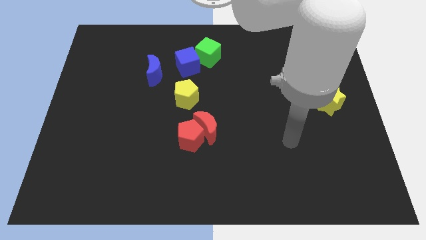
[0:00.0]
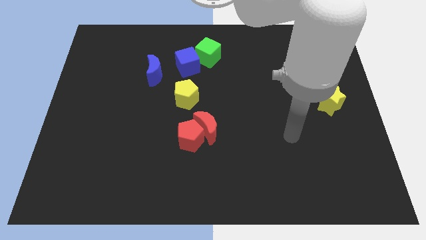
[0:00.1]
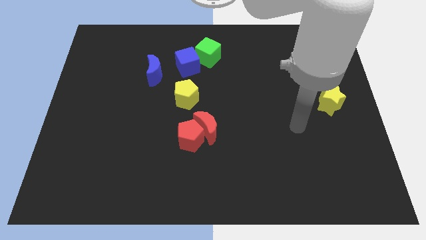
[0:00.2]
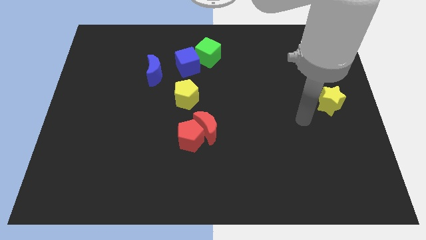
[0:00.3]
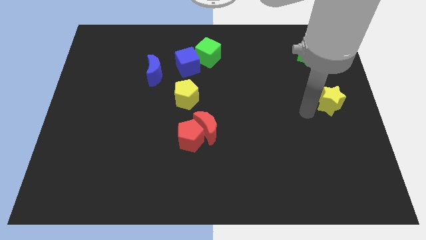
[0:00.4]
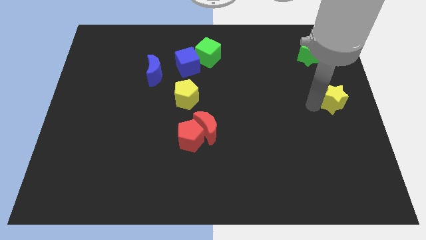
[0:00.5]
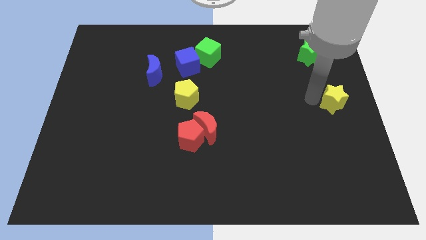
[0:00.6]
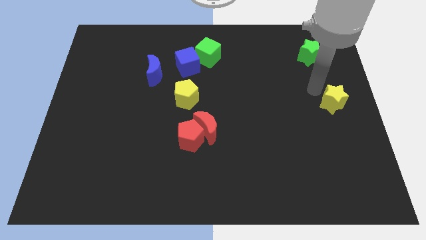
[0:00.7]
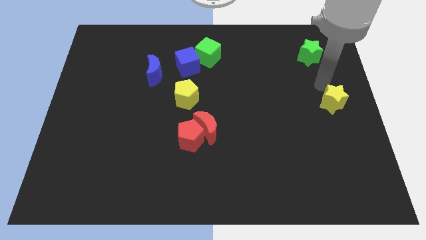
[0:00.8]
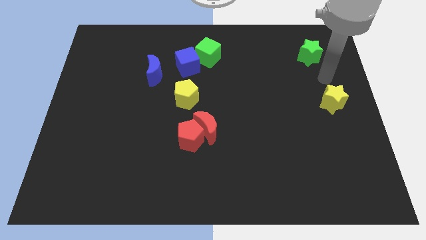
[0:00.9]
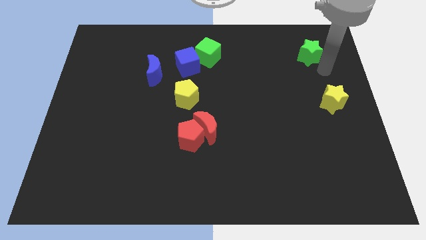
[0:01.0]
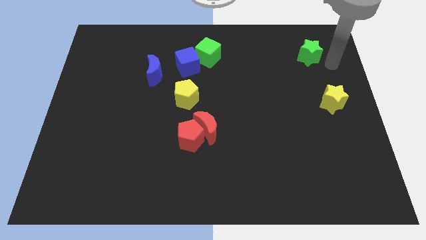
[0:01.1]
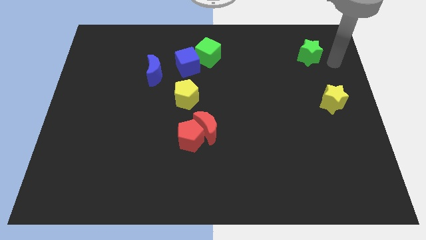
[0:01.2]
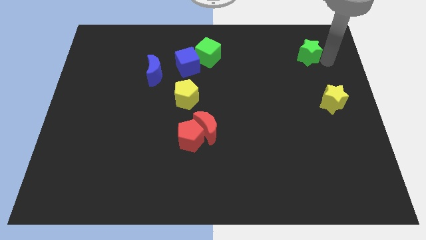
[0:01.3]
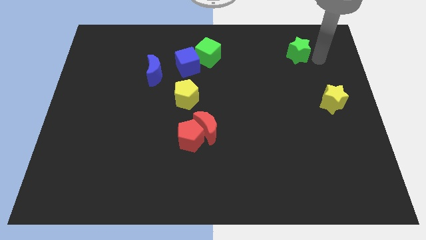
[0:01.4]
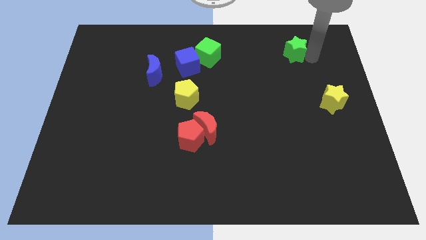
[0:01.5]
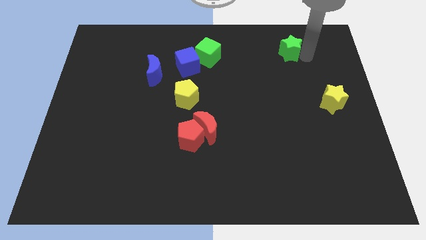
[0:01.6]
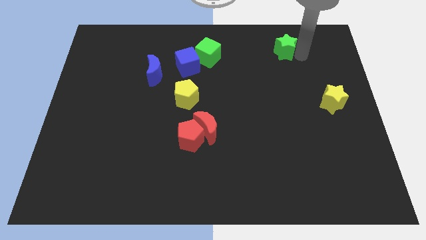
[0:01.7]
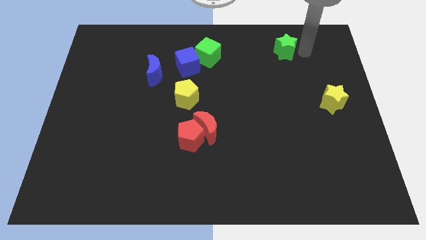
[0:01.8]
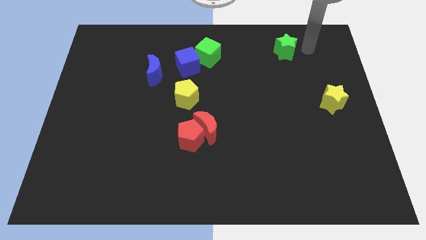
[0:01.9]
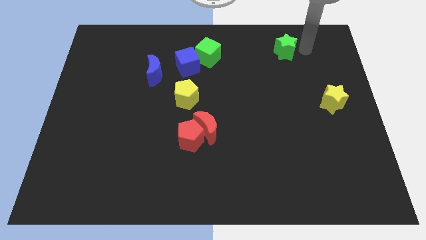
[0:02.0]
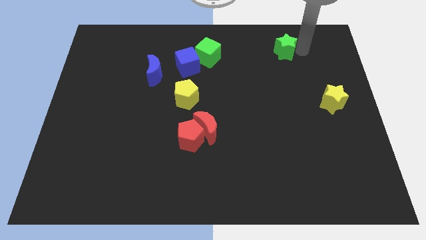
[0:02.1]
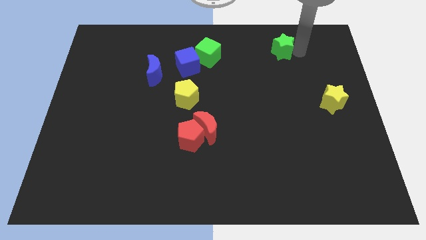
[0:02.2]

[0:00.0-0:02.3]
move the green star to the left a little bit

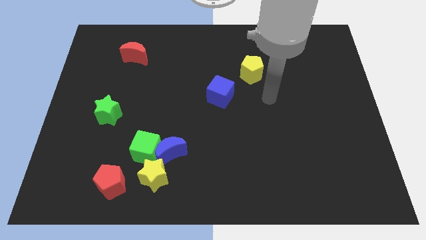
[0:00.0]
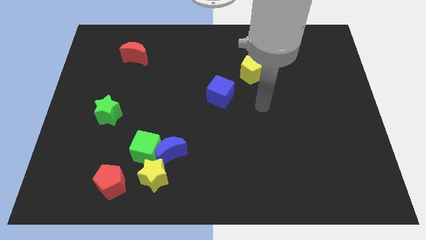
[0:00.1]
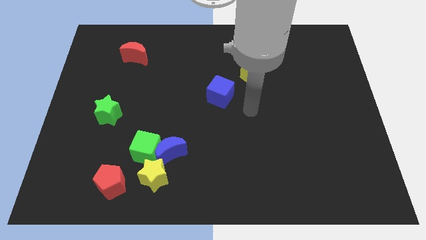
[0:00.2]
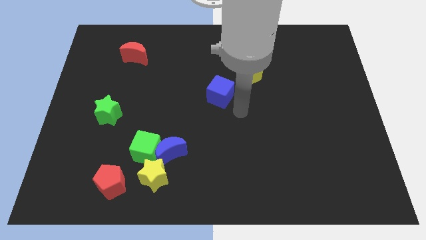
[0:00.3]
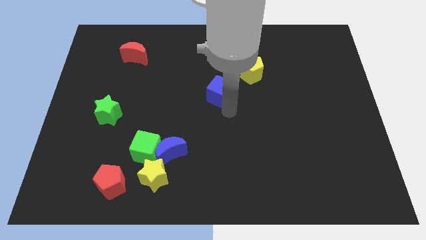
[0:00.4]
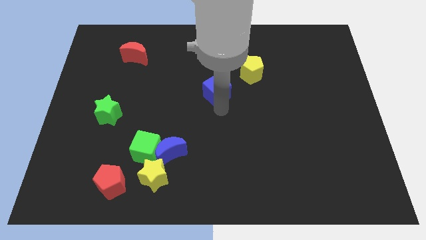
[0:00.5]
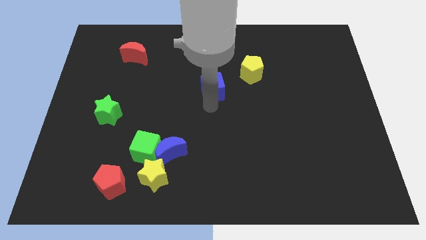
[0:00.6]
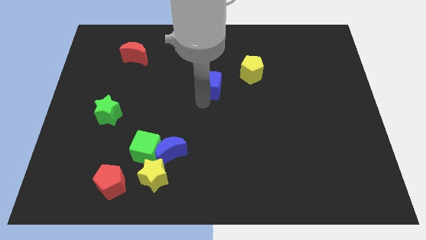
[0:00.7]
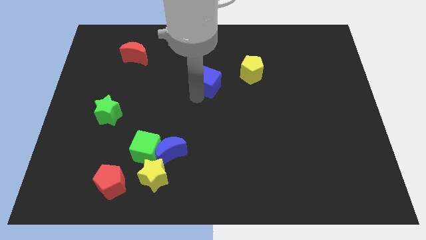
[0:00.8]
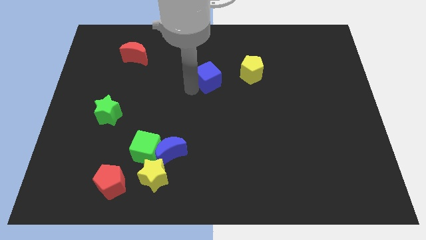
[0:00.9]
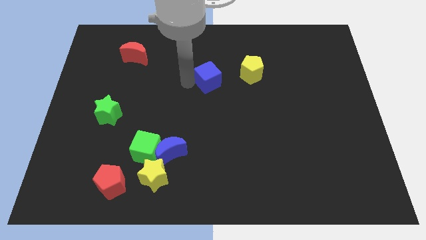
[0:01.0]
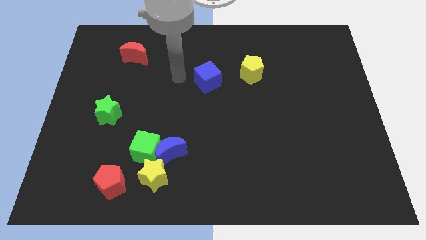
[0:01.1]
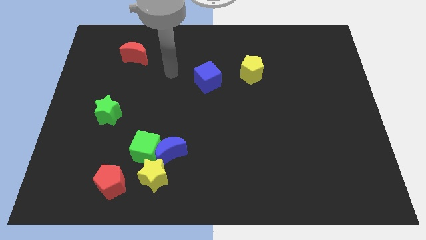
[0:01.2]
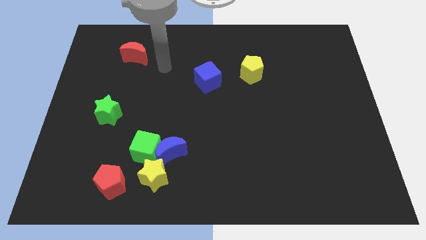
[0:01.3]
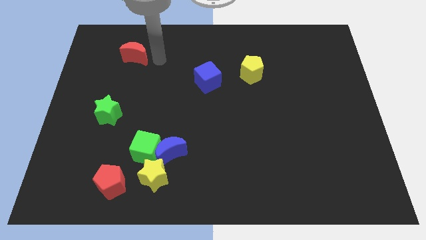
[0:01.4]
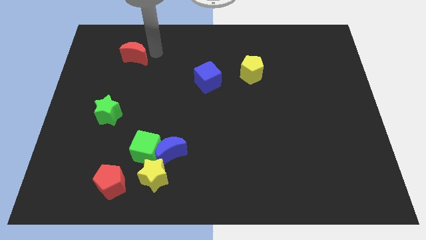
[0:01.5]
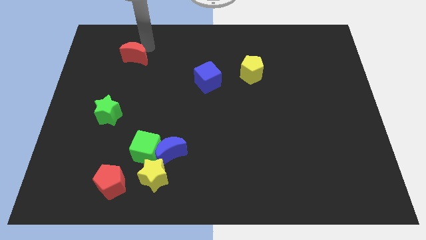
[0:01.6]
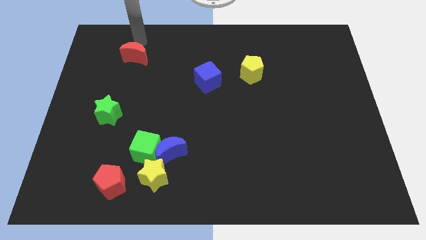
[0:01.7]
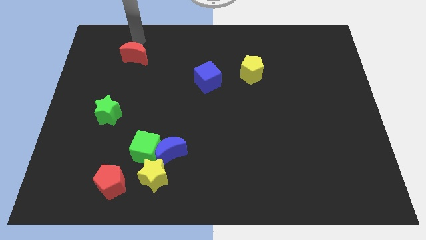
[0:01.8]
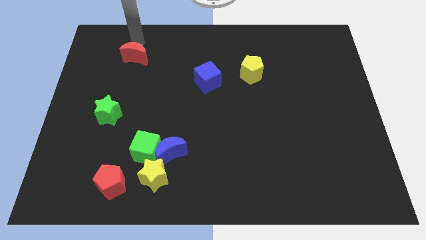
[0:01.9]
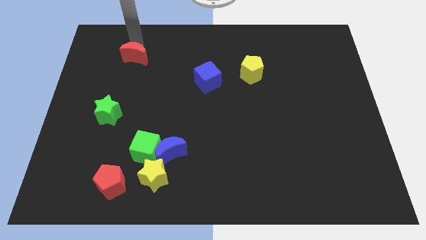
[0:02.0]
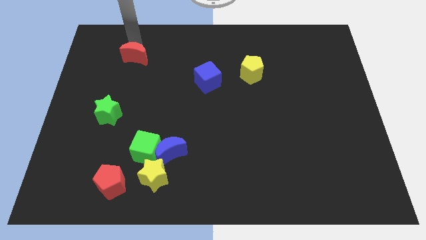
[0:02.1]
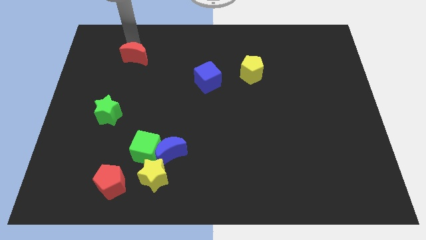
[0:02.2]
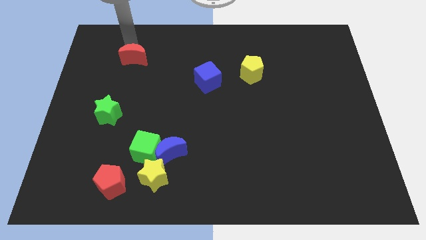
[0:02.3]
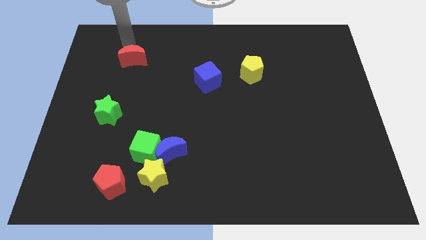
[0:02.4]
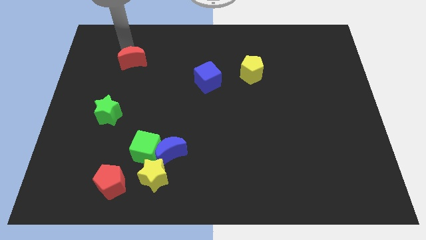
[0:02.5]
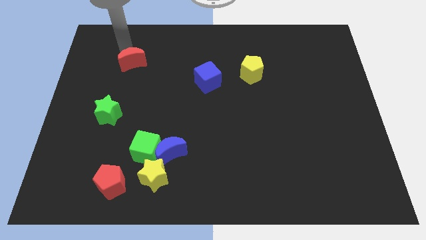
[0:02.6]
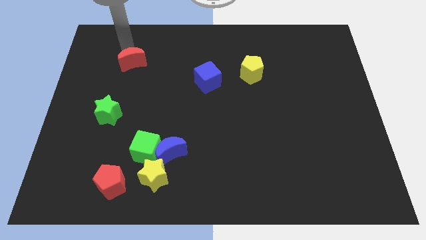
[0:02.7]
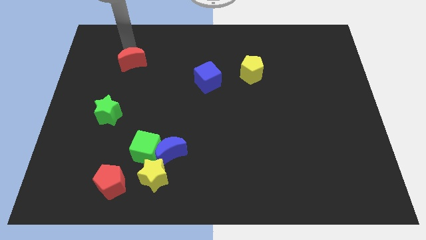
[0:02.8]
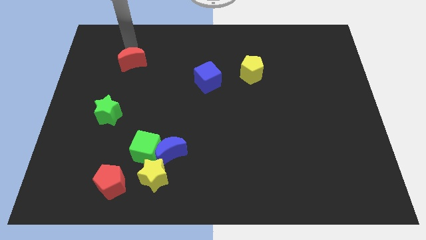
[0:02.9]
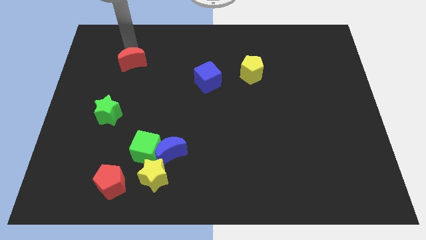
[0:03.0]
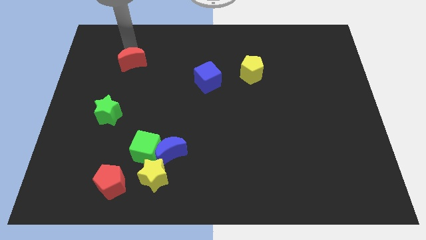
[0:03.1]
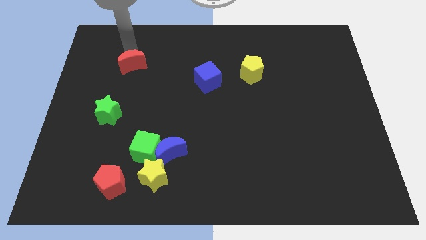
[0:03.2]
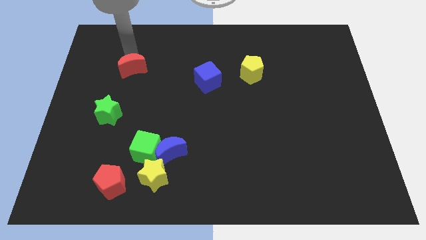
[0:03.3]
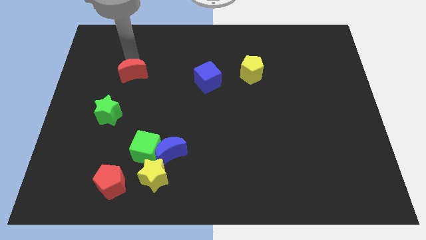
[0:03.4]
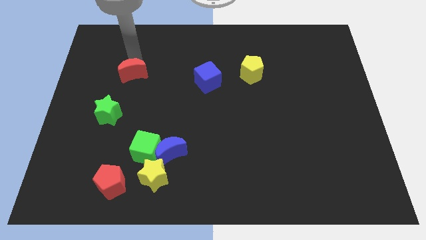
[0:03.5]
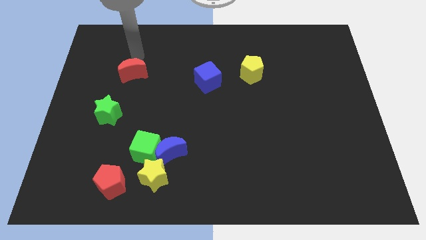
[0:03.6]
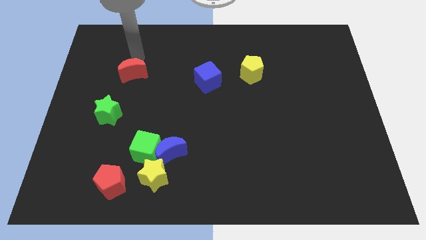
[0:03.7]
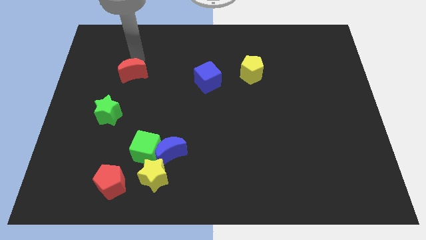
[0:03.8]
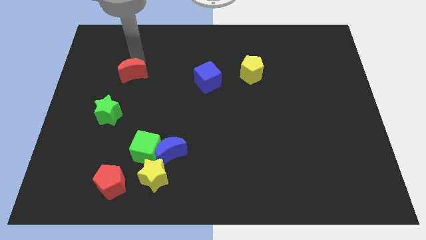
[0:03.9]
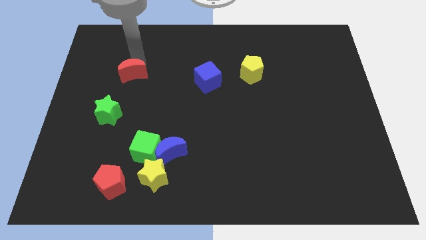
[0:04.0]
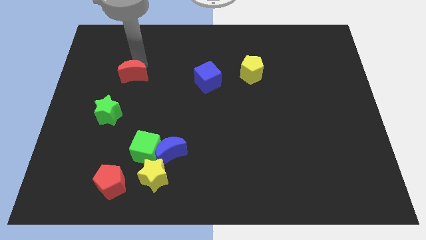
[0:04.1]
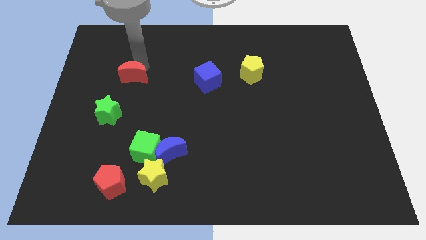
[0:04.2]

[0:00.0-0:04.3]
slightly move the red moon downwards

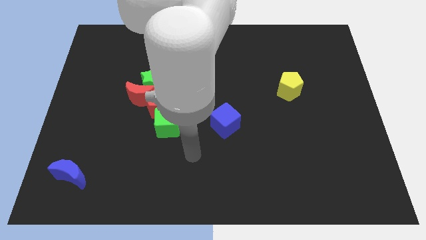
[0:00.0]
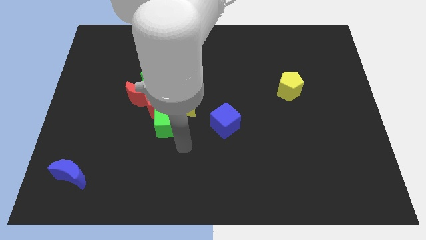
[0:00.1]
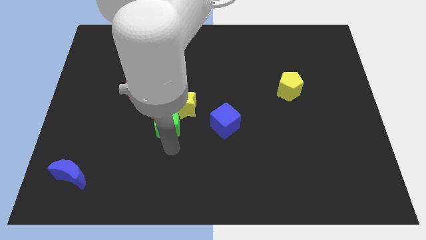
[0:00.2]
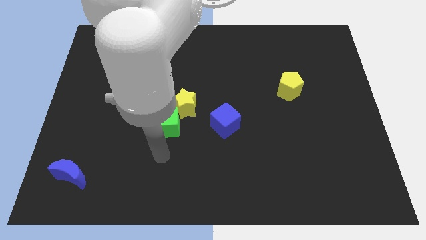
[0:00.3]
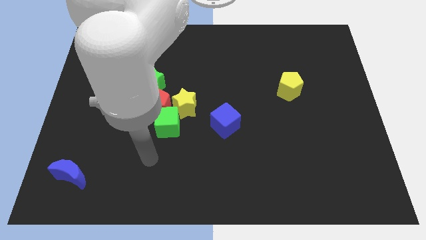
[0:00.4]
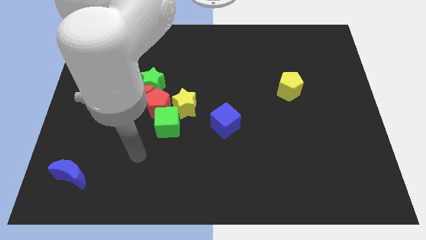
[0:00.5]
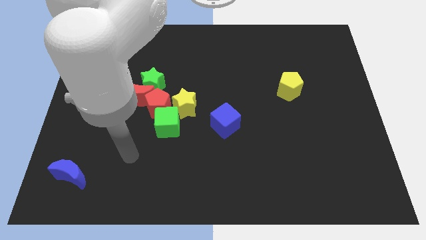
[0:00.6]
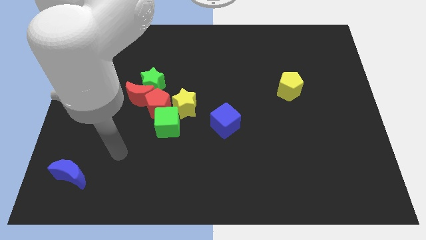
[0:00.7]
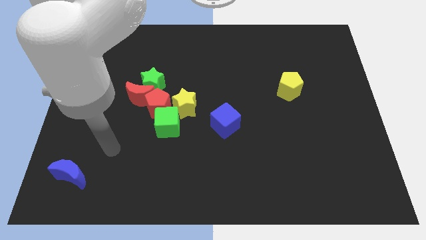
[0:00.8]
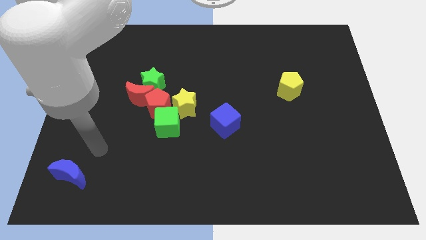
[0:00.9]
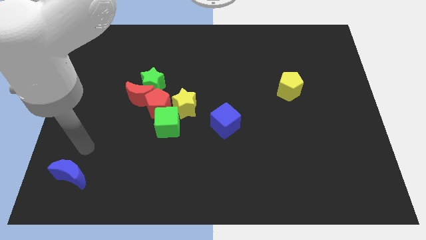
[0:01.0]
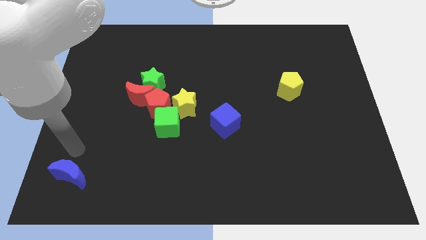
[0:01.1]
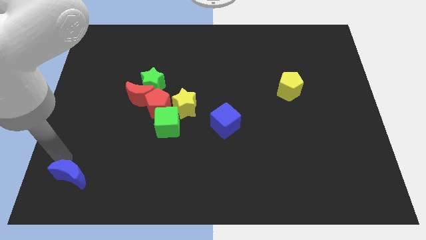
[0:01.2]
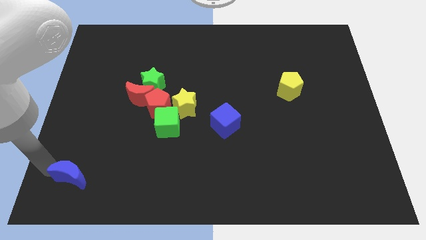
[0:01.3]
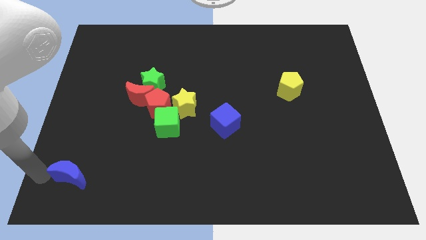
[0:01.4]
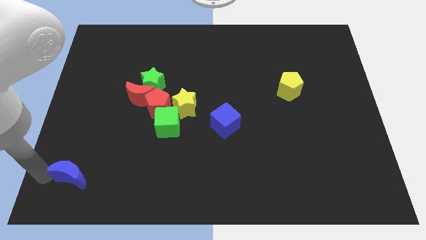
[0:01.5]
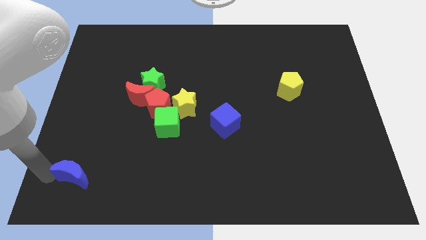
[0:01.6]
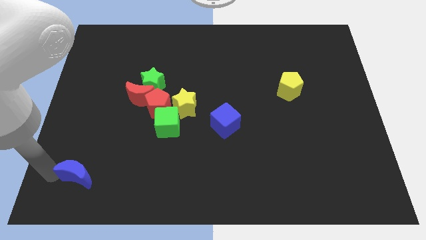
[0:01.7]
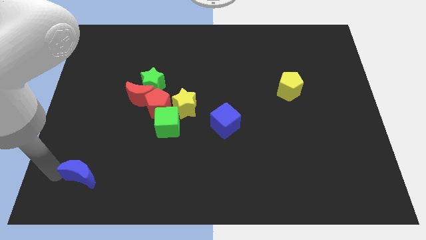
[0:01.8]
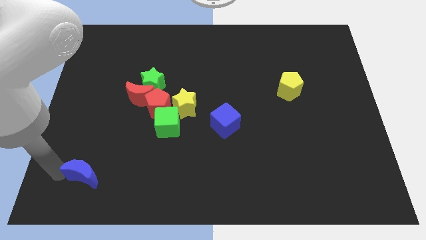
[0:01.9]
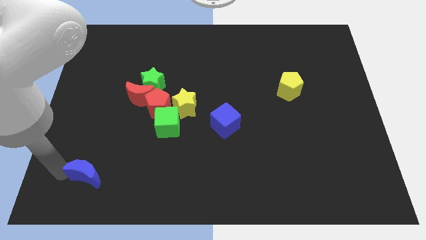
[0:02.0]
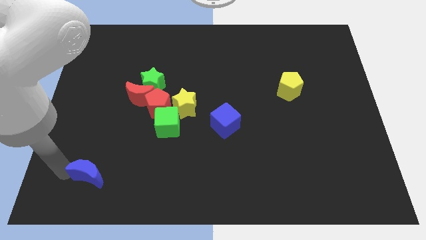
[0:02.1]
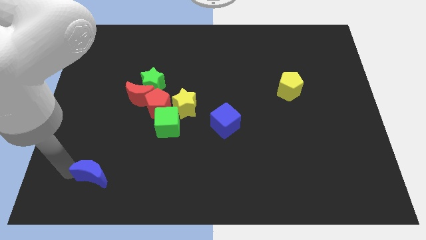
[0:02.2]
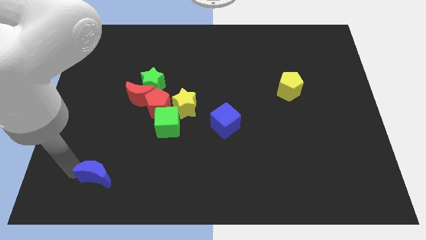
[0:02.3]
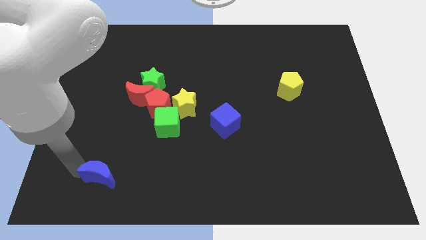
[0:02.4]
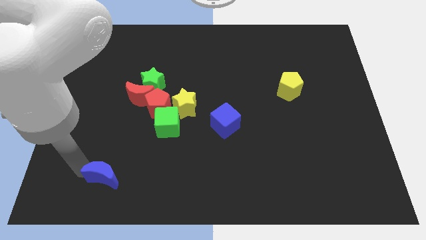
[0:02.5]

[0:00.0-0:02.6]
move the blue moon slightly to the right
